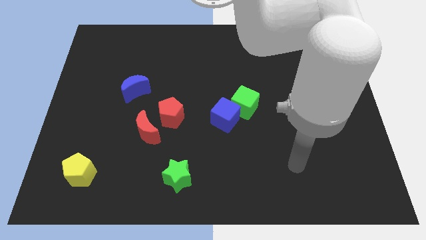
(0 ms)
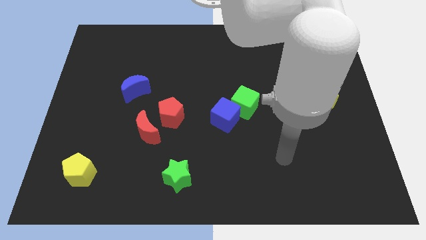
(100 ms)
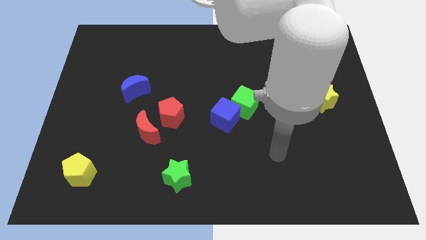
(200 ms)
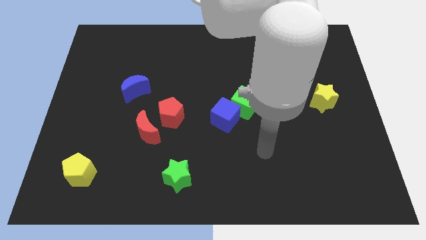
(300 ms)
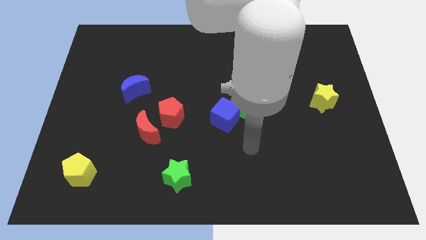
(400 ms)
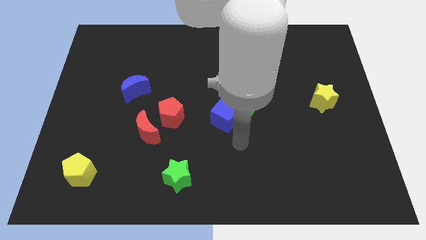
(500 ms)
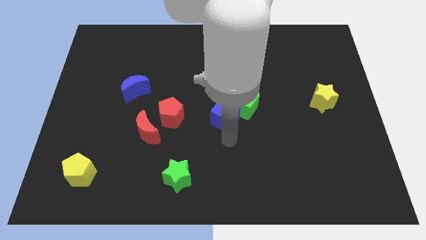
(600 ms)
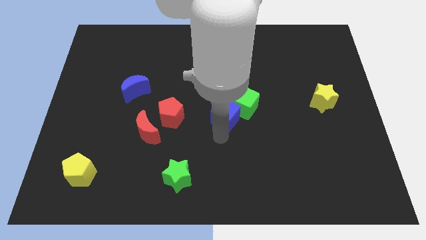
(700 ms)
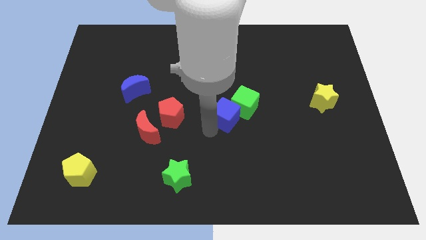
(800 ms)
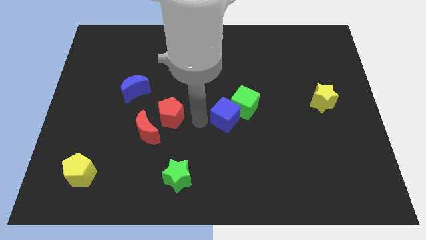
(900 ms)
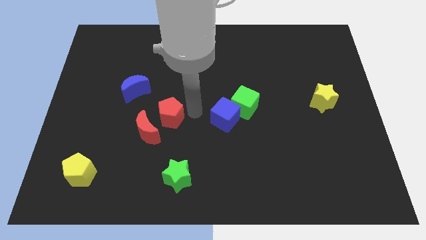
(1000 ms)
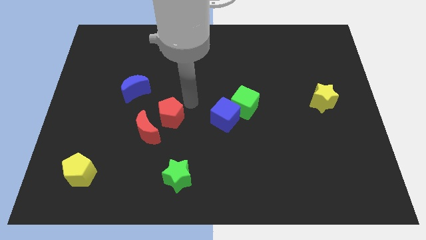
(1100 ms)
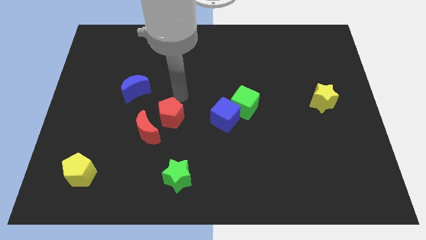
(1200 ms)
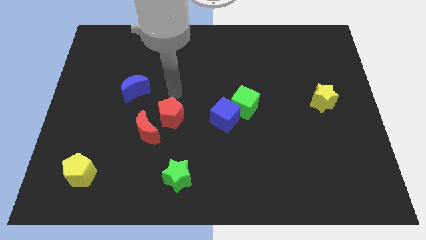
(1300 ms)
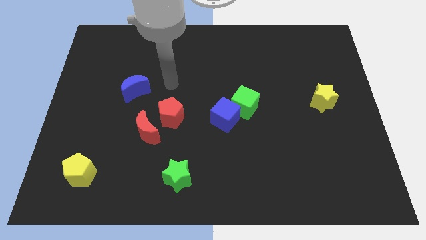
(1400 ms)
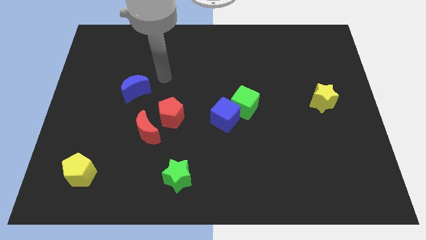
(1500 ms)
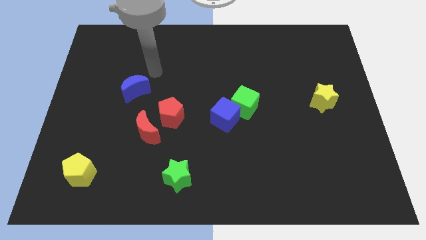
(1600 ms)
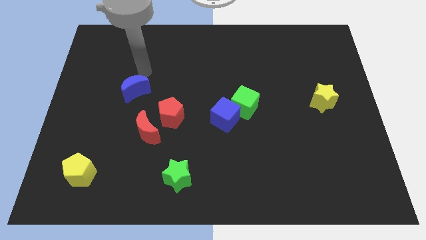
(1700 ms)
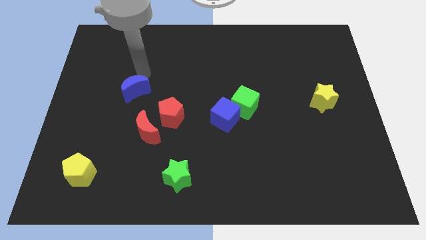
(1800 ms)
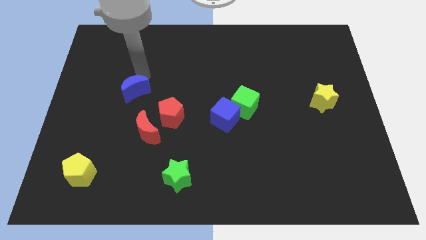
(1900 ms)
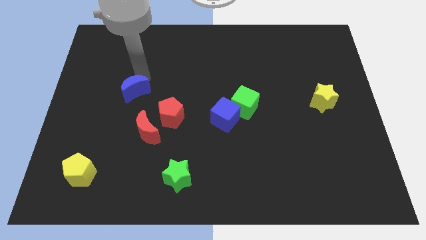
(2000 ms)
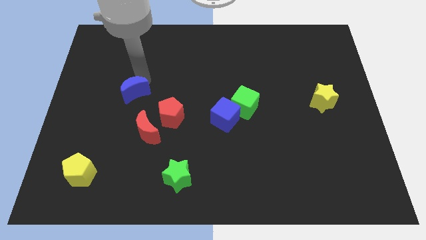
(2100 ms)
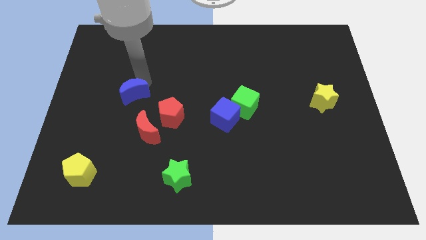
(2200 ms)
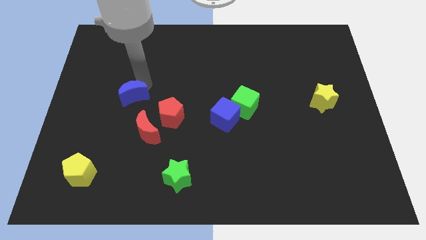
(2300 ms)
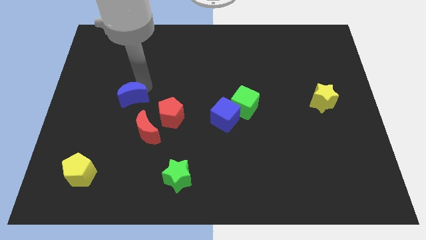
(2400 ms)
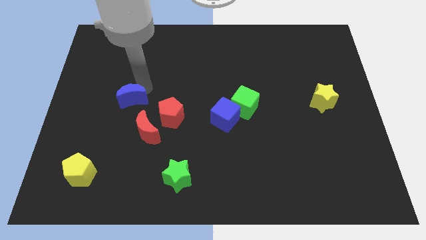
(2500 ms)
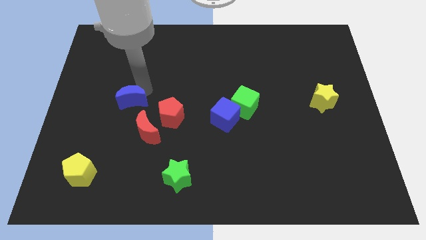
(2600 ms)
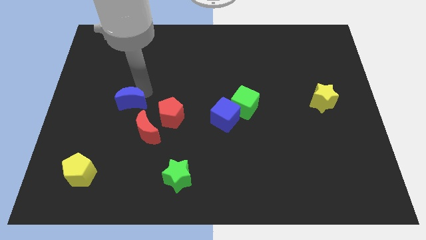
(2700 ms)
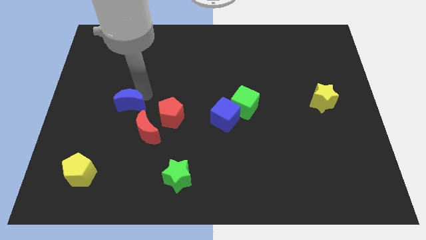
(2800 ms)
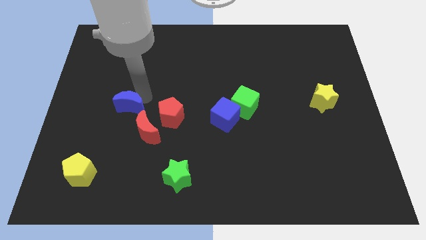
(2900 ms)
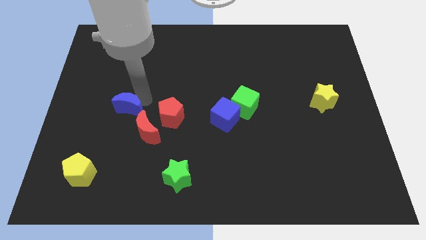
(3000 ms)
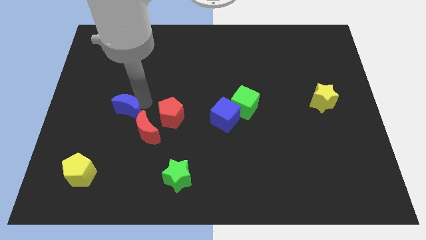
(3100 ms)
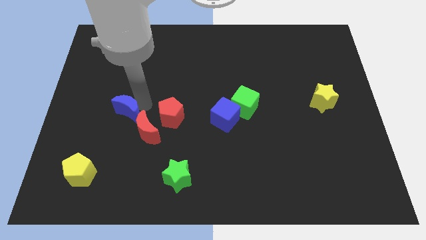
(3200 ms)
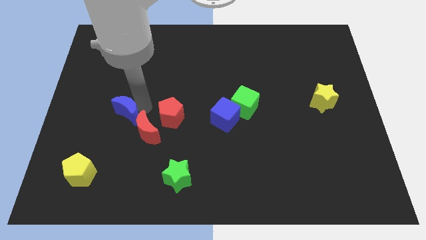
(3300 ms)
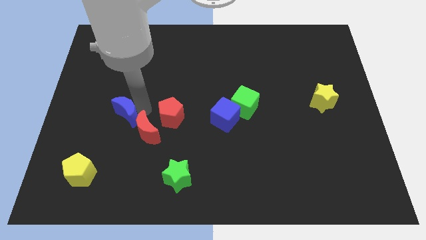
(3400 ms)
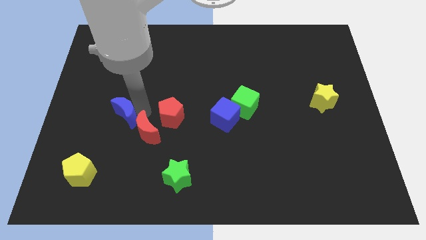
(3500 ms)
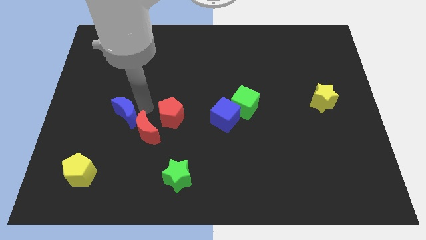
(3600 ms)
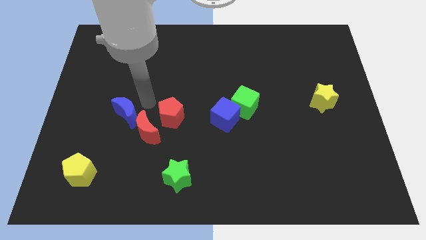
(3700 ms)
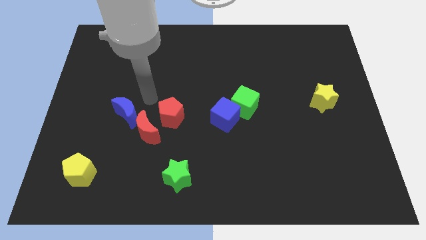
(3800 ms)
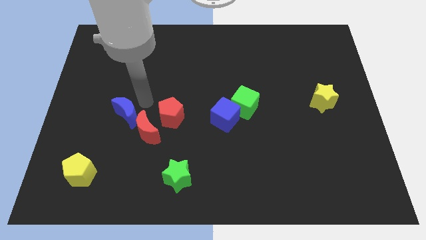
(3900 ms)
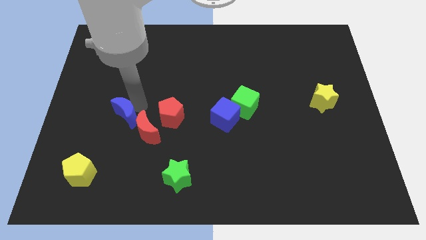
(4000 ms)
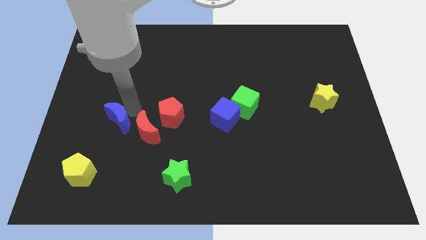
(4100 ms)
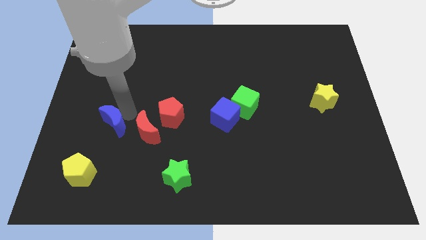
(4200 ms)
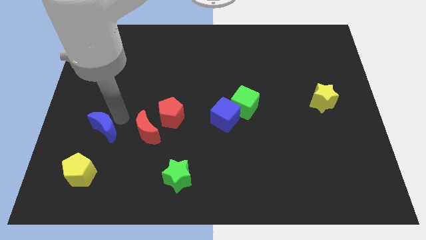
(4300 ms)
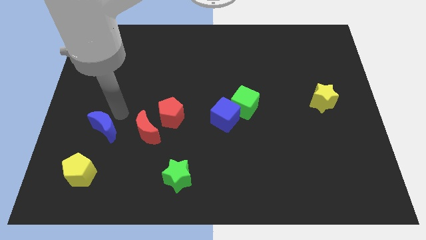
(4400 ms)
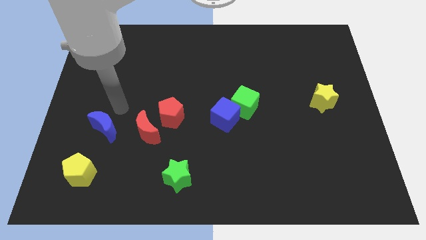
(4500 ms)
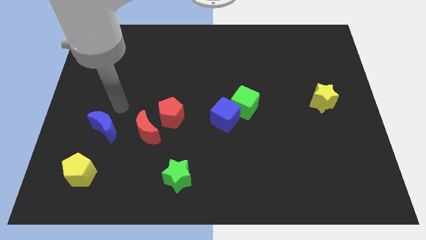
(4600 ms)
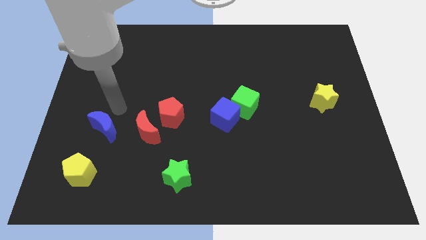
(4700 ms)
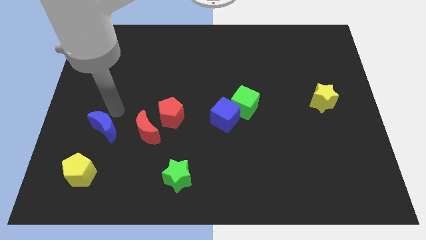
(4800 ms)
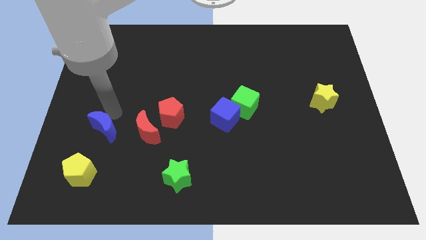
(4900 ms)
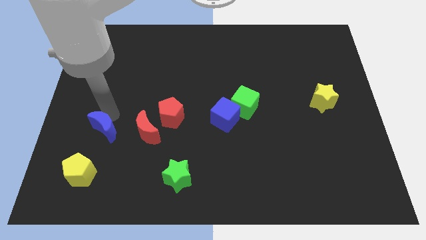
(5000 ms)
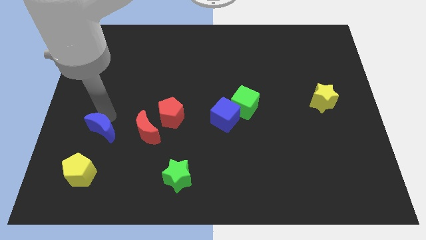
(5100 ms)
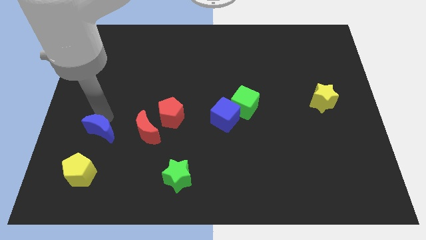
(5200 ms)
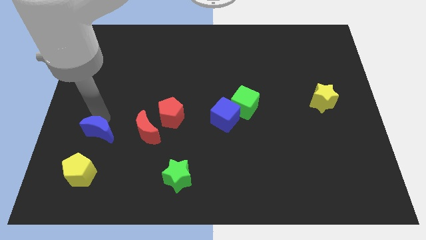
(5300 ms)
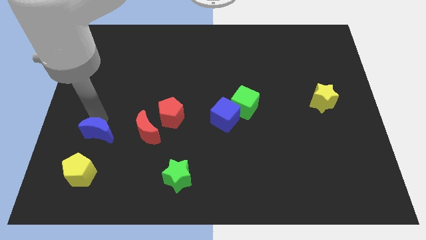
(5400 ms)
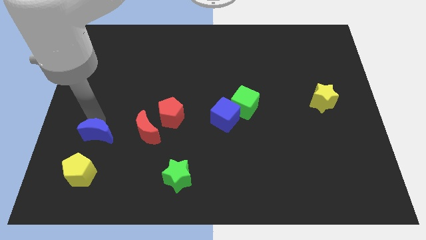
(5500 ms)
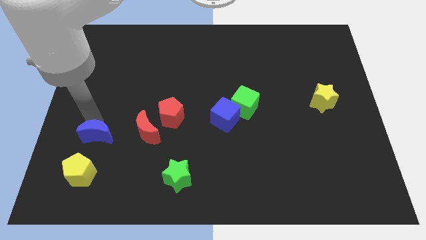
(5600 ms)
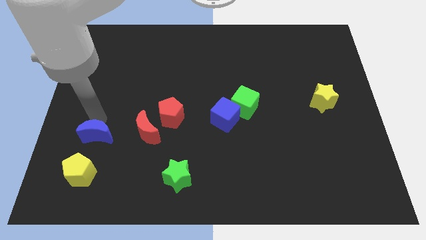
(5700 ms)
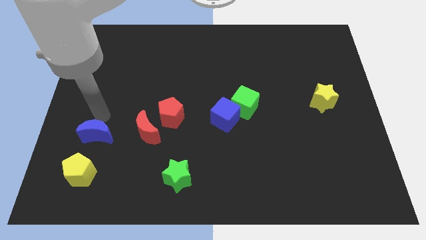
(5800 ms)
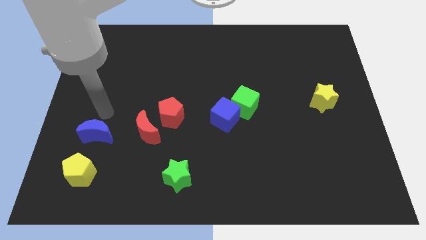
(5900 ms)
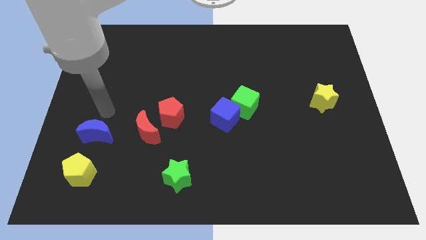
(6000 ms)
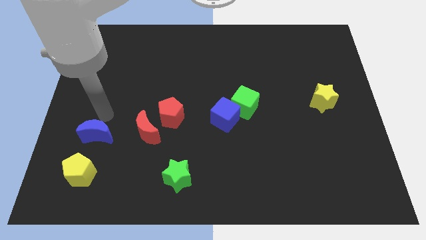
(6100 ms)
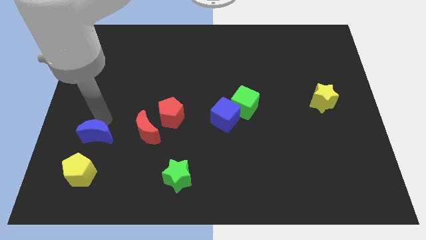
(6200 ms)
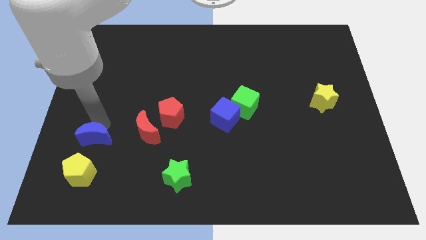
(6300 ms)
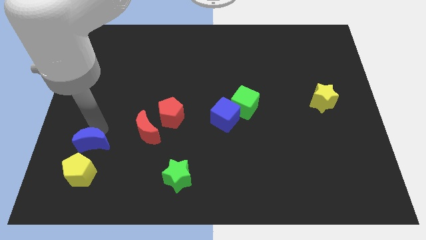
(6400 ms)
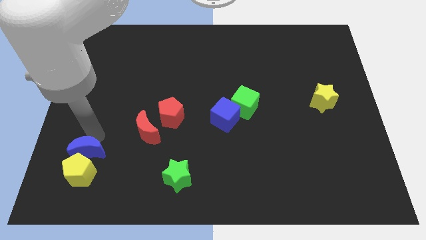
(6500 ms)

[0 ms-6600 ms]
slide the blue moon to the yellow pentagon

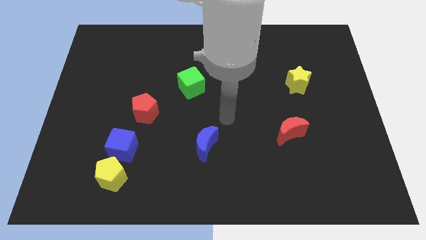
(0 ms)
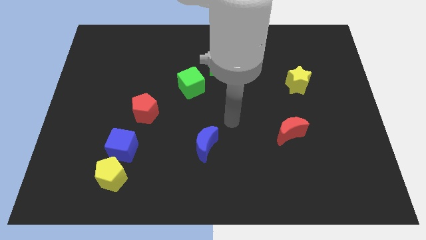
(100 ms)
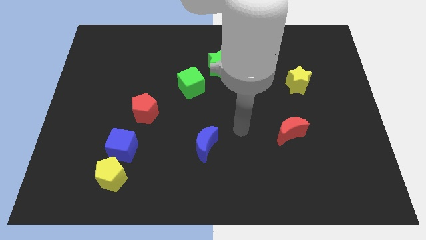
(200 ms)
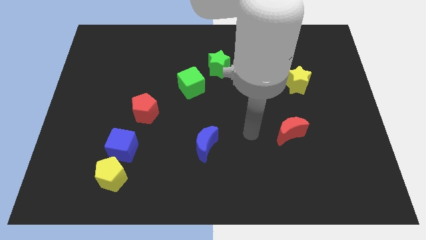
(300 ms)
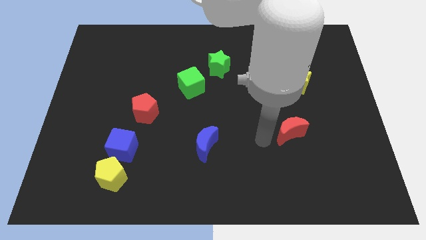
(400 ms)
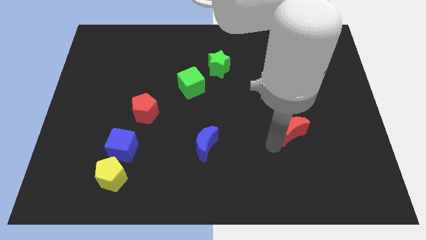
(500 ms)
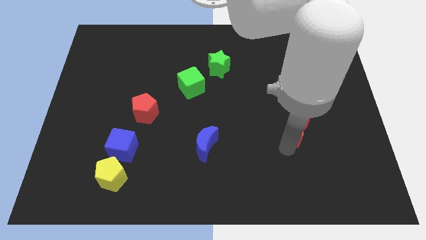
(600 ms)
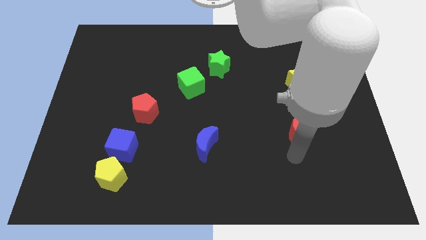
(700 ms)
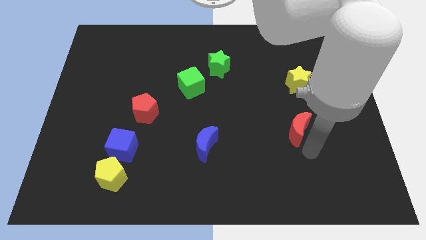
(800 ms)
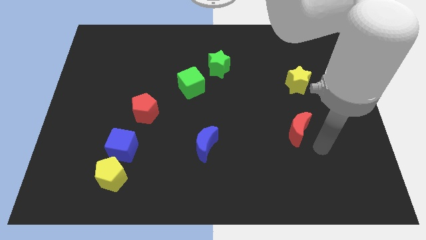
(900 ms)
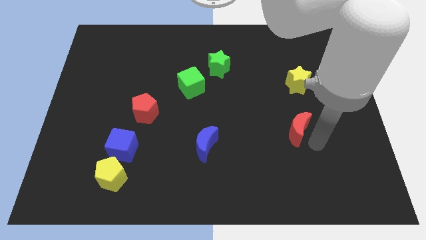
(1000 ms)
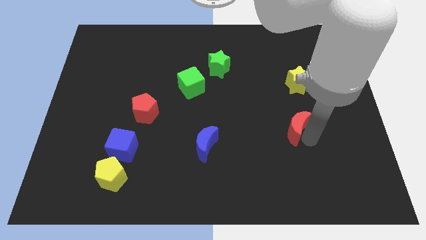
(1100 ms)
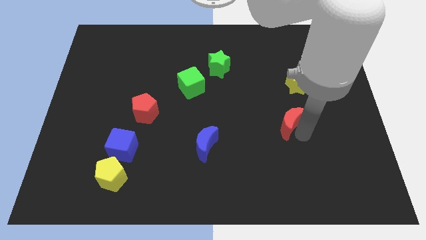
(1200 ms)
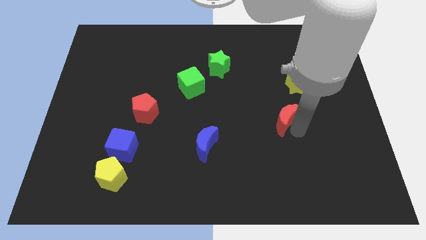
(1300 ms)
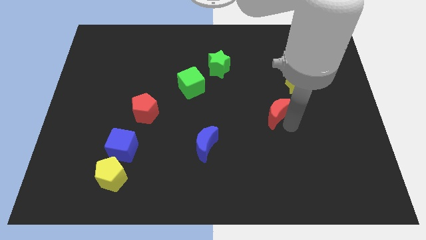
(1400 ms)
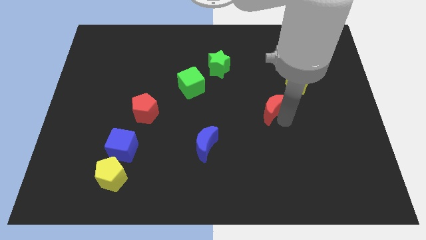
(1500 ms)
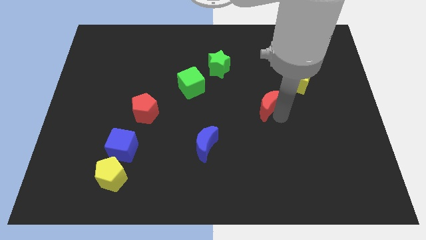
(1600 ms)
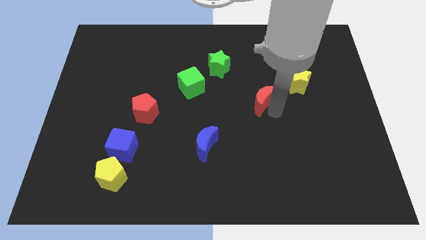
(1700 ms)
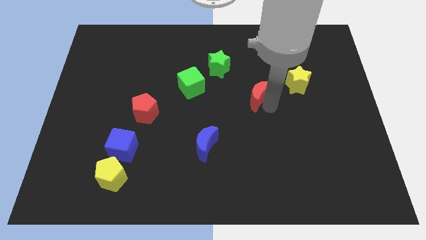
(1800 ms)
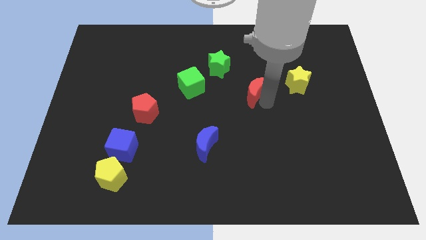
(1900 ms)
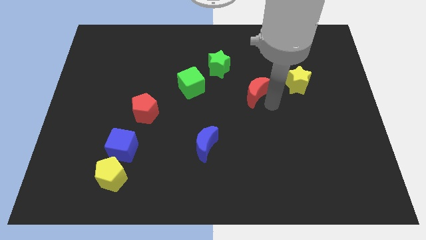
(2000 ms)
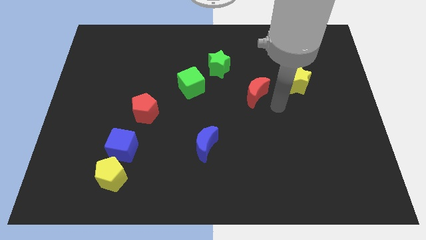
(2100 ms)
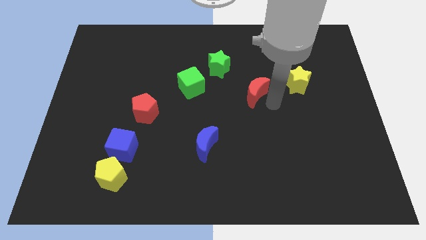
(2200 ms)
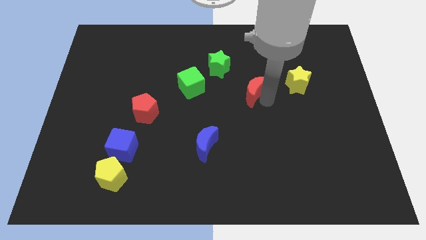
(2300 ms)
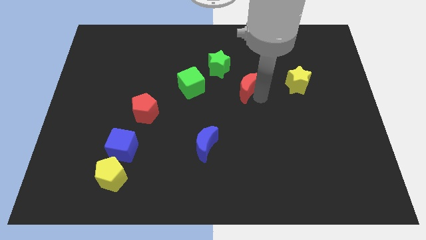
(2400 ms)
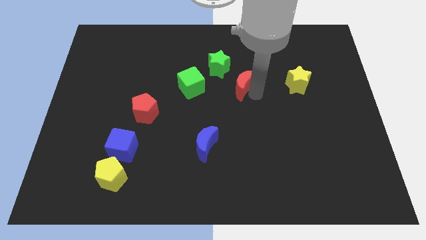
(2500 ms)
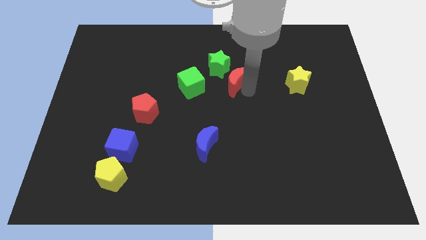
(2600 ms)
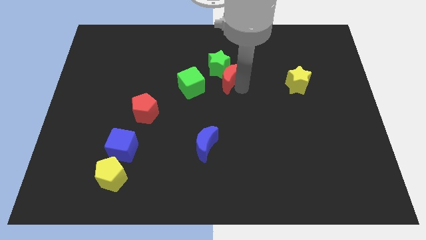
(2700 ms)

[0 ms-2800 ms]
move the red moon to the green star
